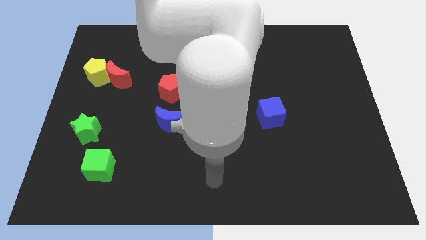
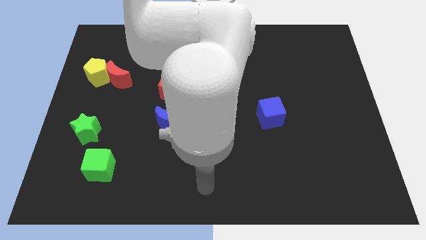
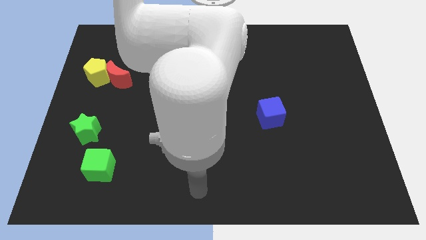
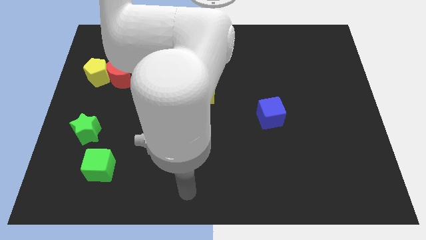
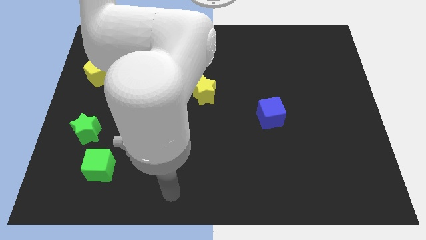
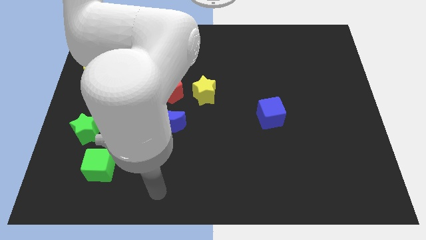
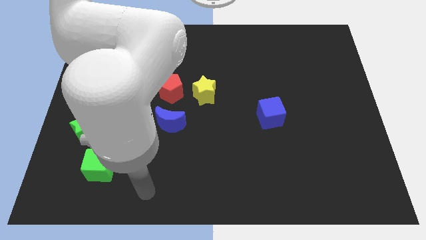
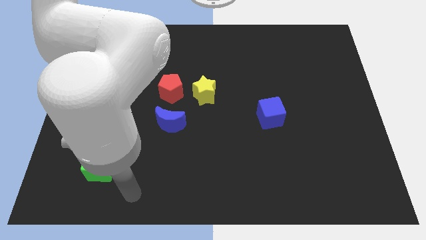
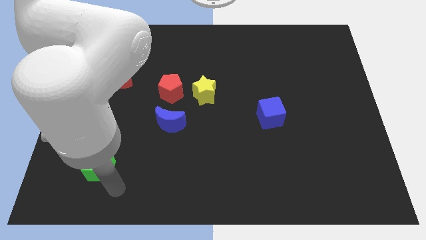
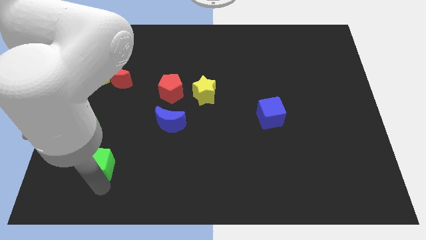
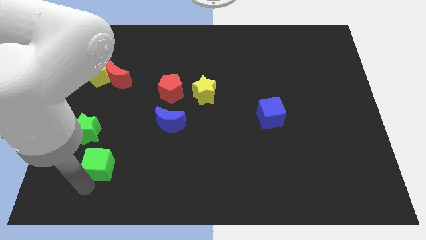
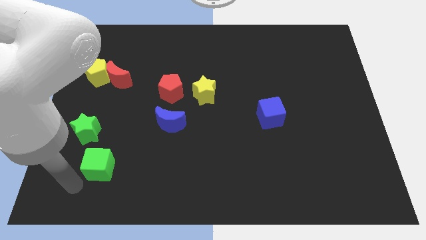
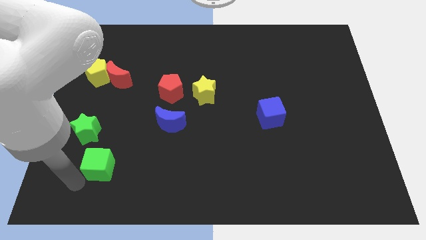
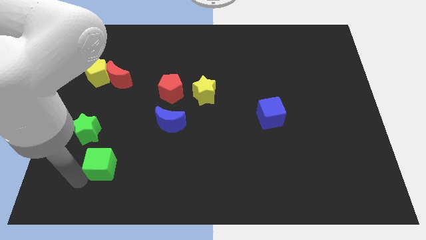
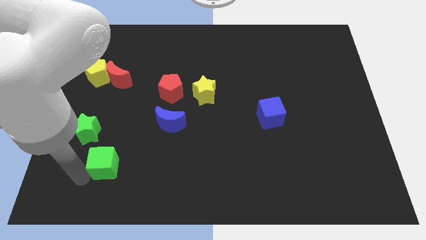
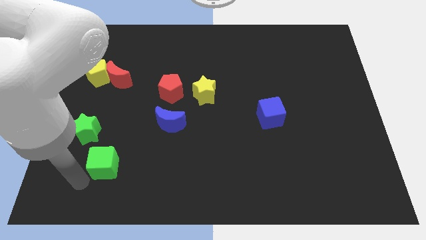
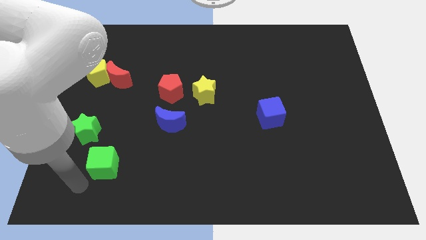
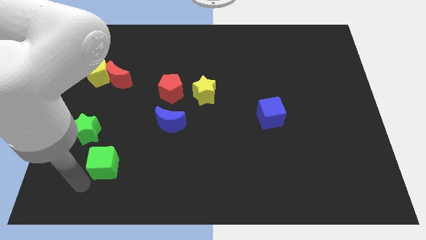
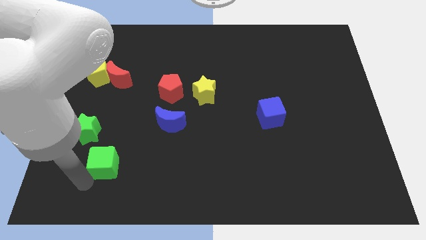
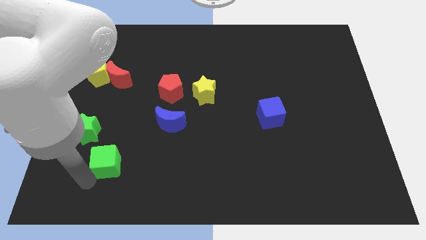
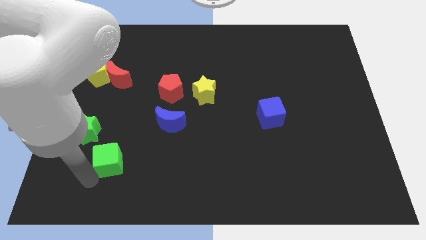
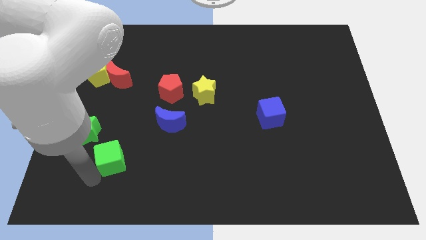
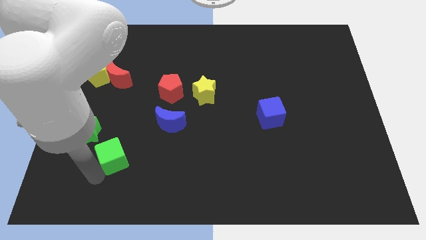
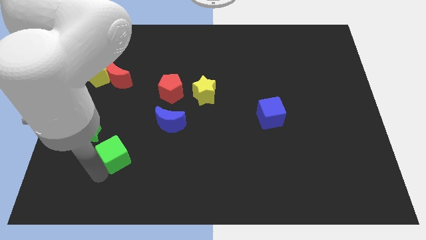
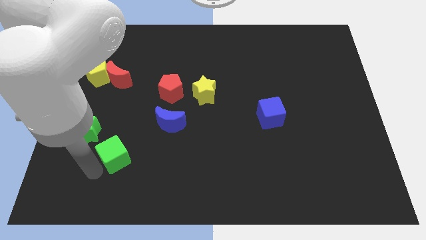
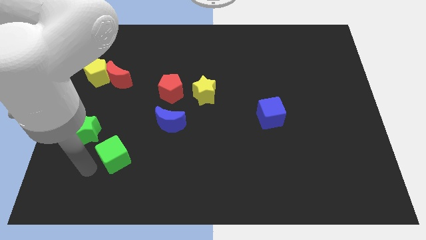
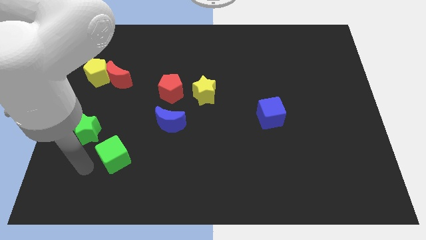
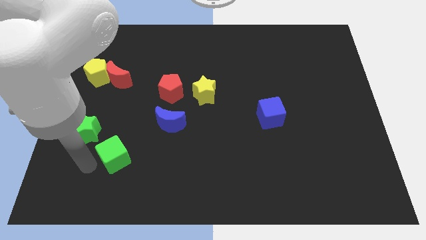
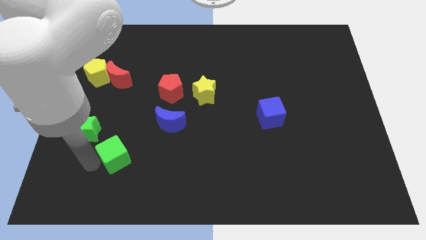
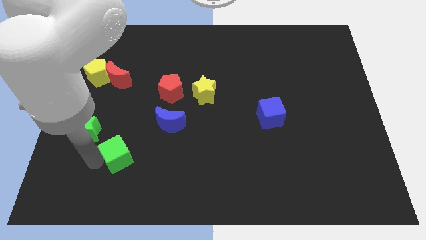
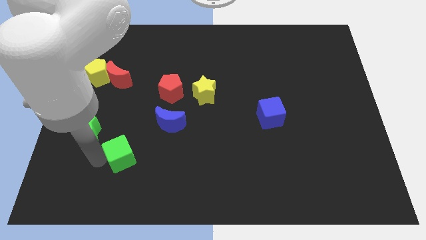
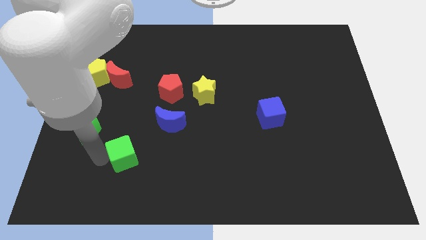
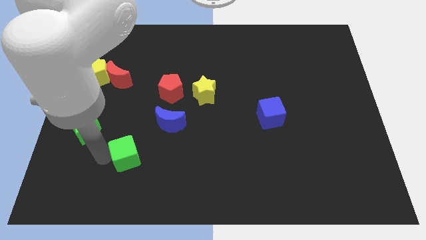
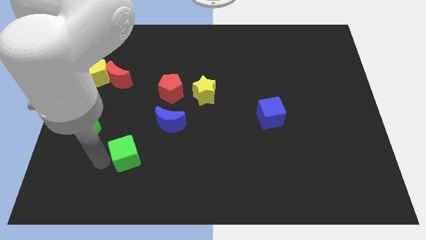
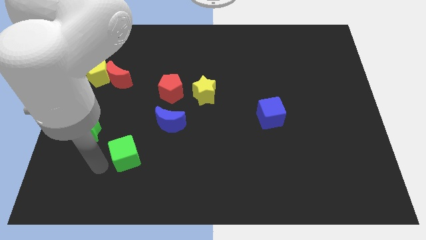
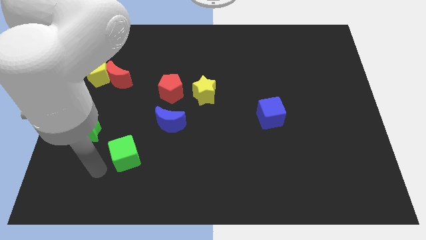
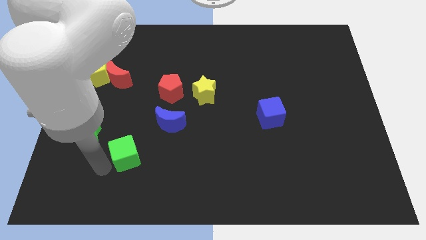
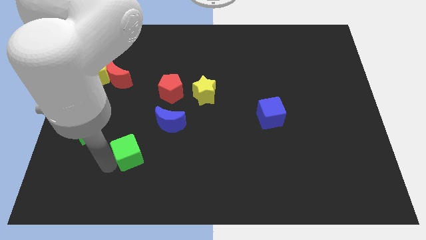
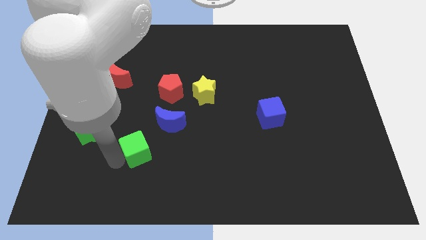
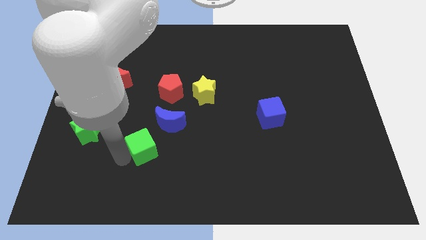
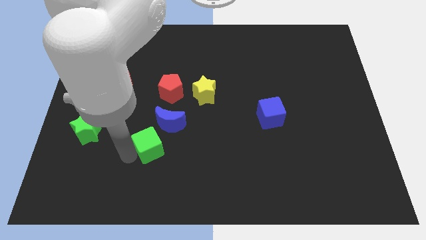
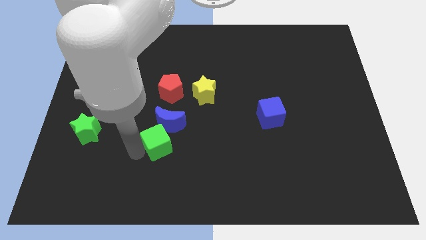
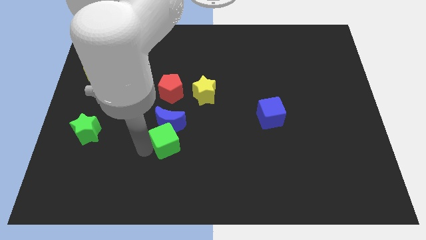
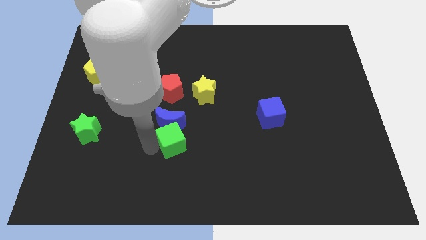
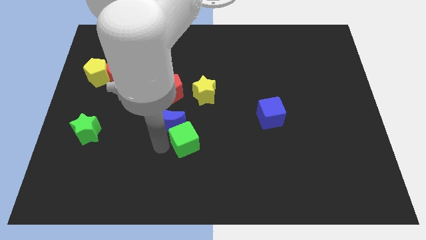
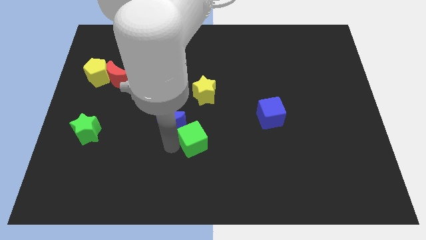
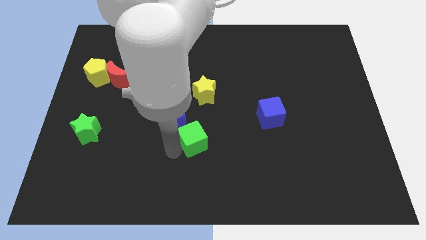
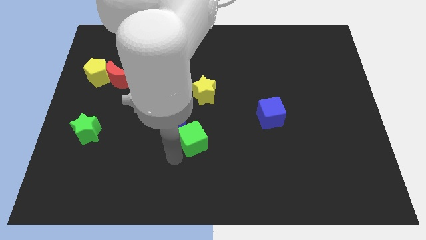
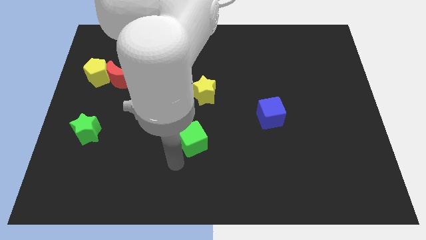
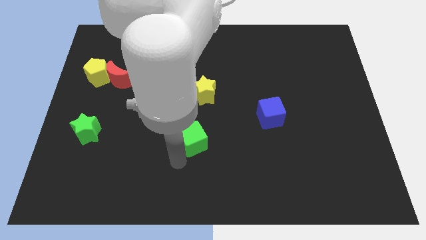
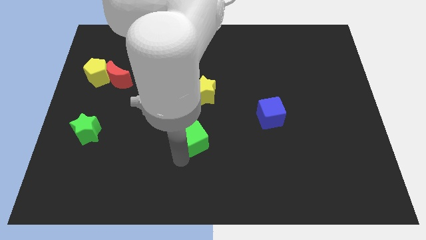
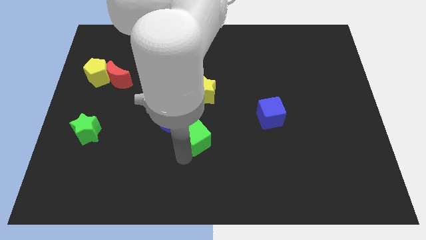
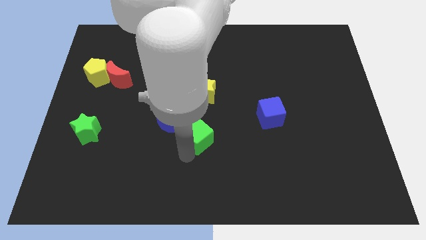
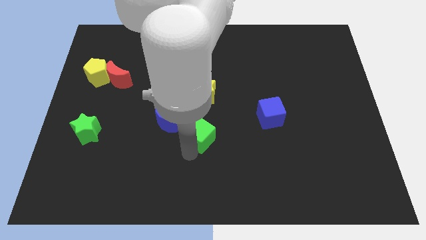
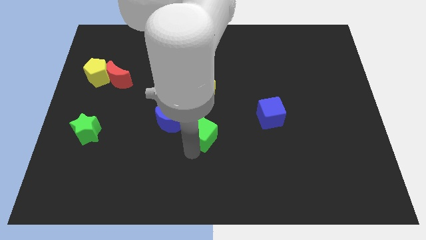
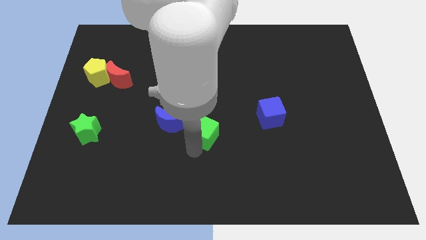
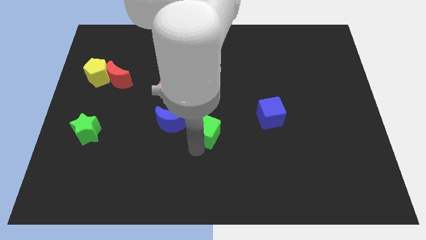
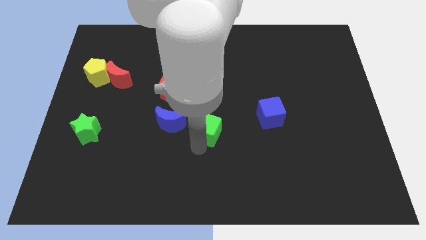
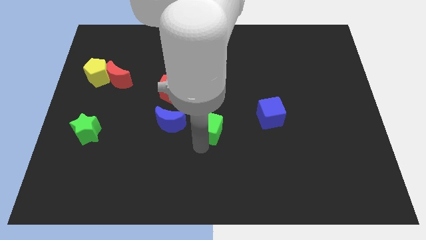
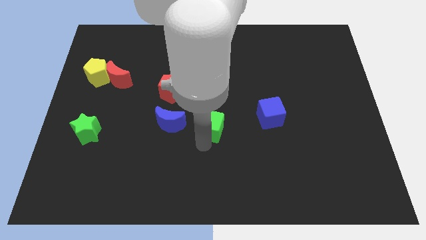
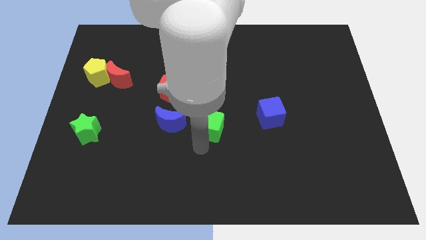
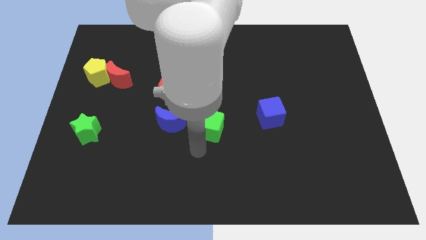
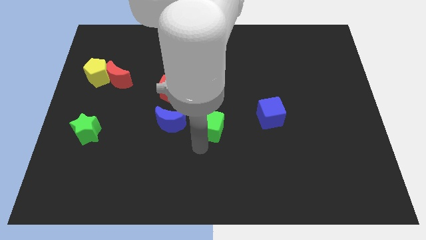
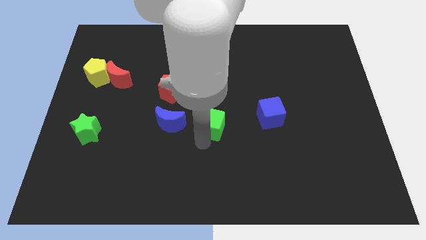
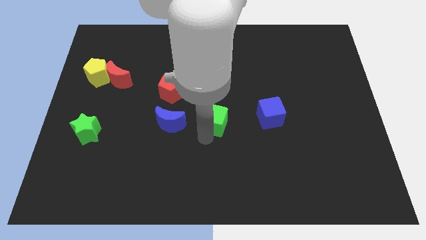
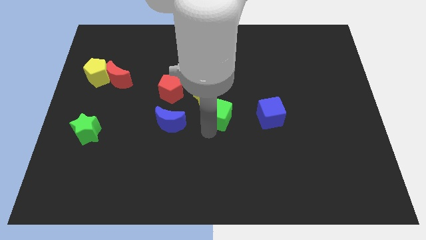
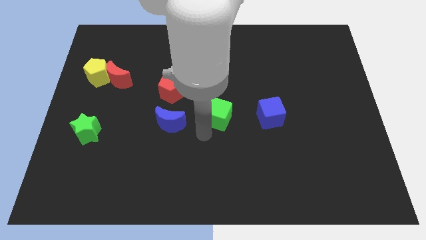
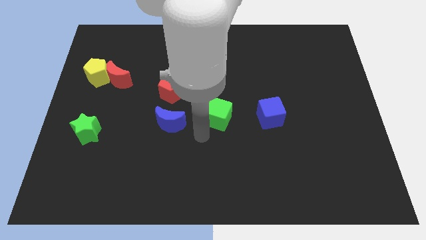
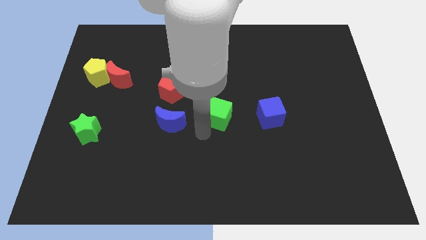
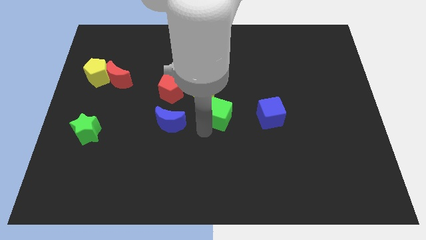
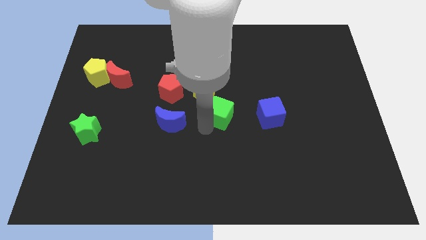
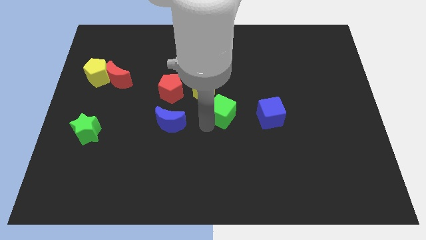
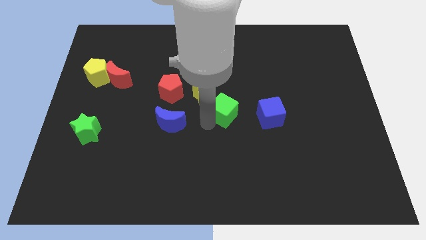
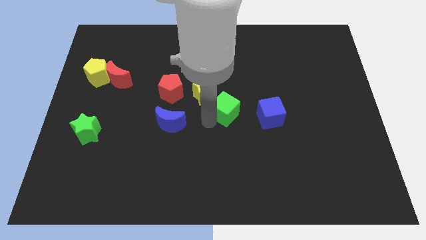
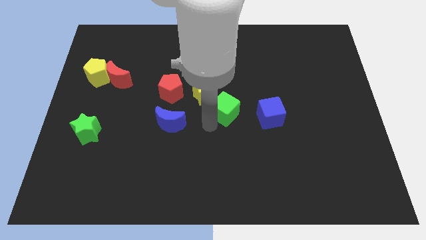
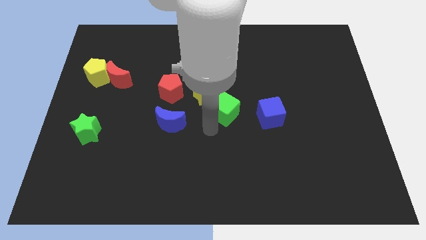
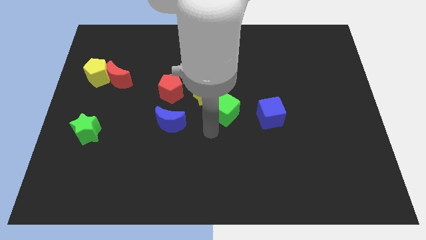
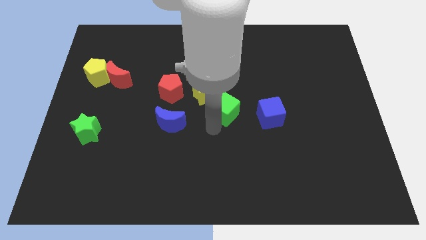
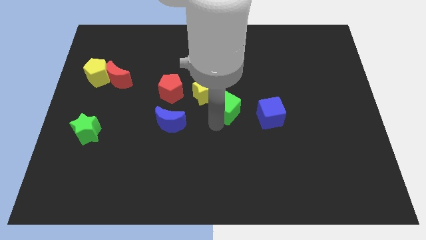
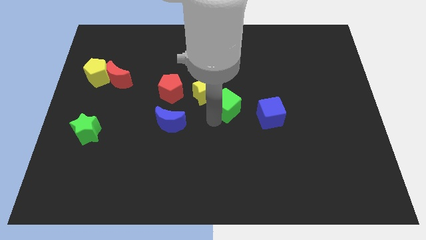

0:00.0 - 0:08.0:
put the green cube to the right side of the yellow star
